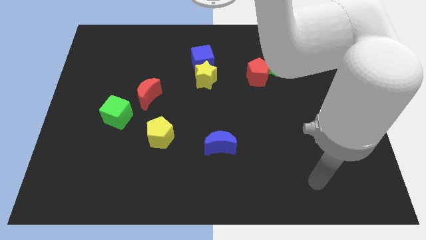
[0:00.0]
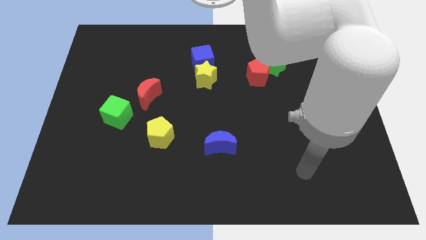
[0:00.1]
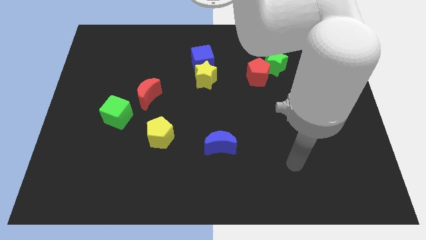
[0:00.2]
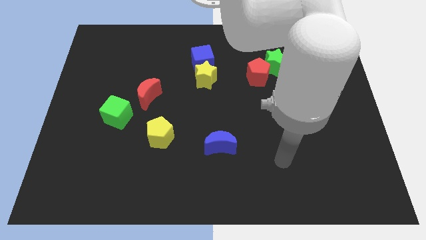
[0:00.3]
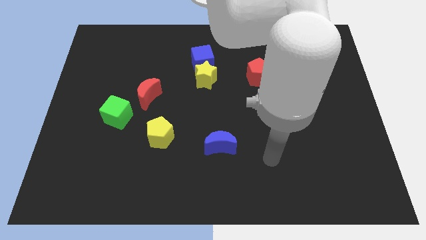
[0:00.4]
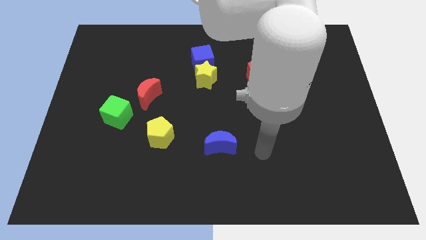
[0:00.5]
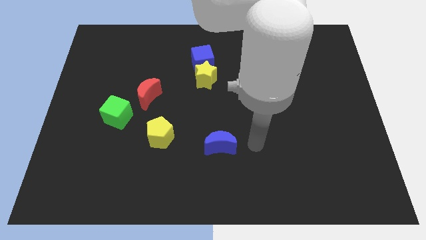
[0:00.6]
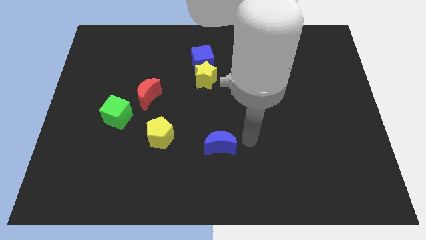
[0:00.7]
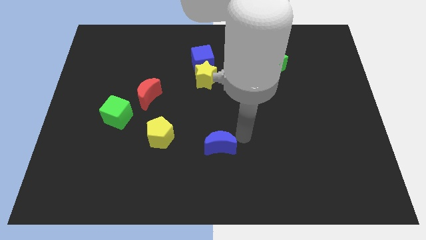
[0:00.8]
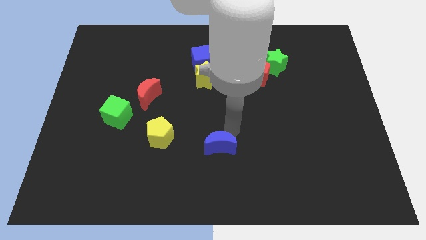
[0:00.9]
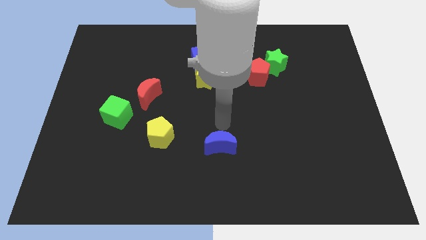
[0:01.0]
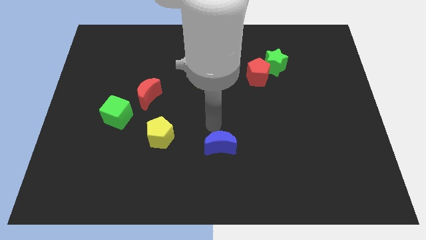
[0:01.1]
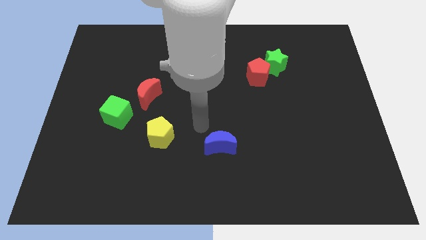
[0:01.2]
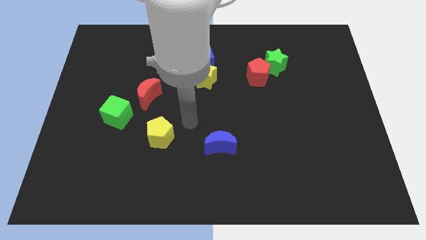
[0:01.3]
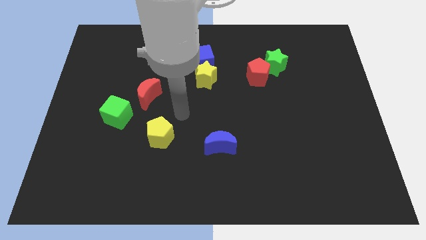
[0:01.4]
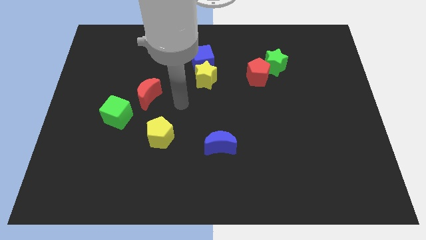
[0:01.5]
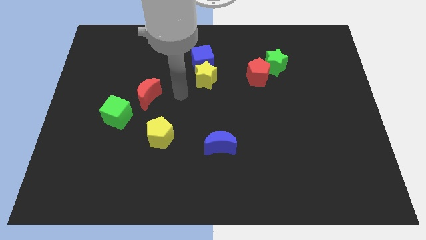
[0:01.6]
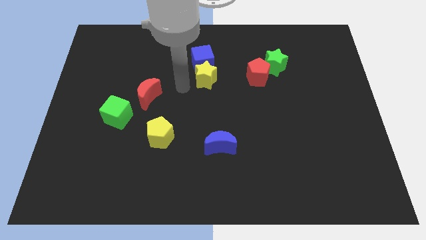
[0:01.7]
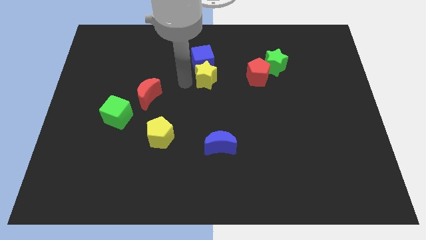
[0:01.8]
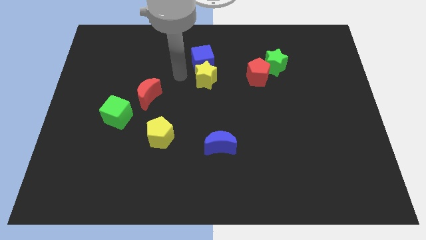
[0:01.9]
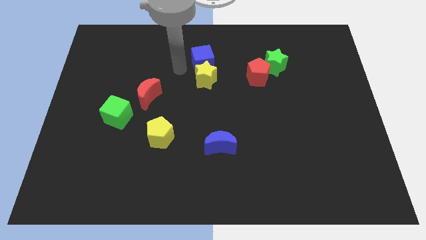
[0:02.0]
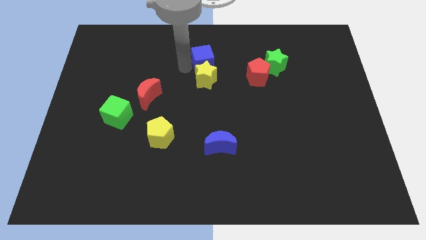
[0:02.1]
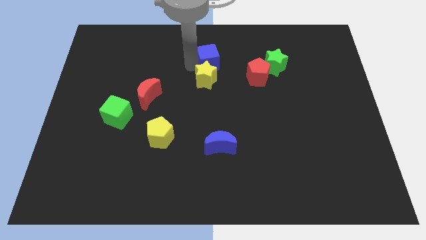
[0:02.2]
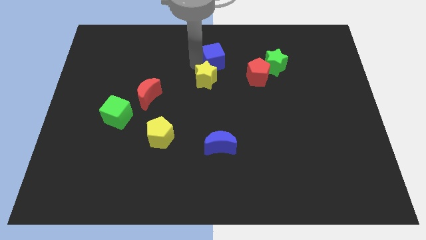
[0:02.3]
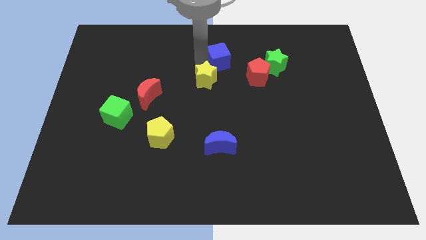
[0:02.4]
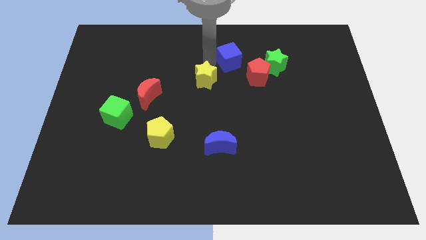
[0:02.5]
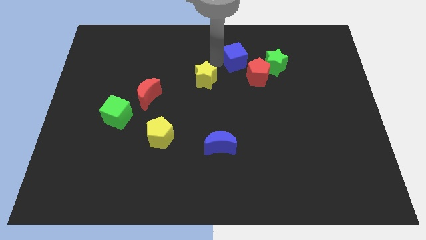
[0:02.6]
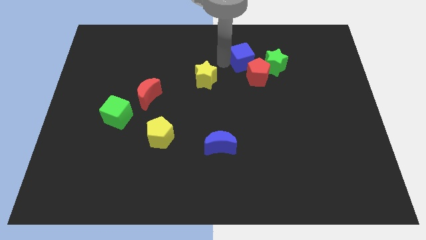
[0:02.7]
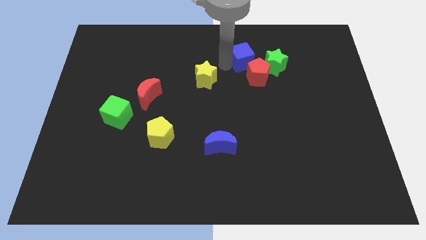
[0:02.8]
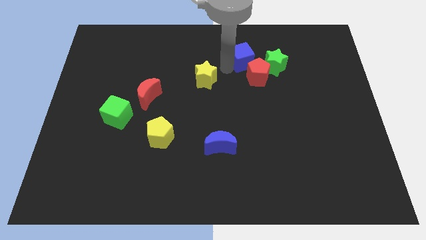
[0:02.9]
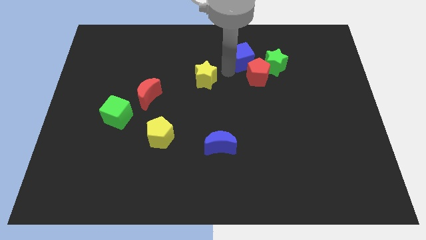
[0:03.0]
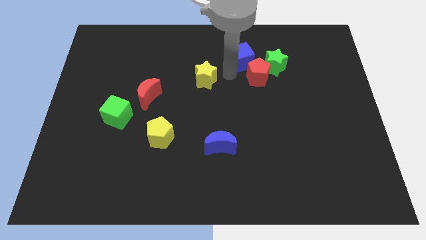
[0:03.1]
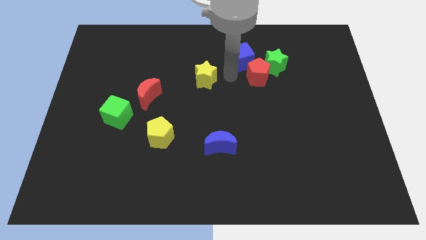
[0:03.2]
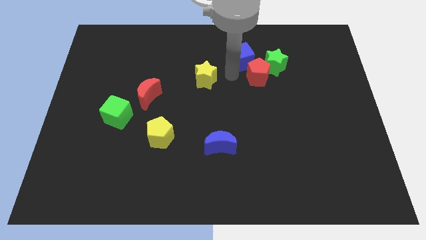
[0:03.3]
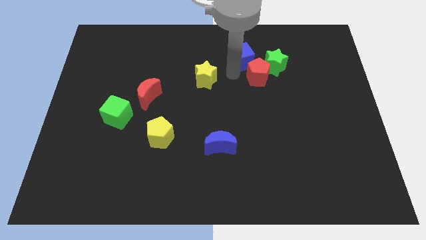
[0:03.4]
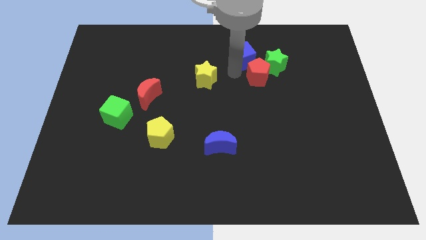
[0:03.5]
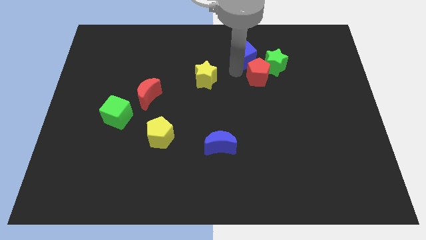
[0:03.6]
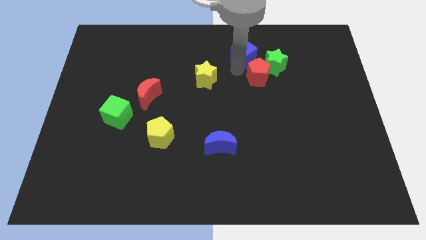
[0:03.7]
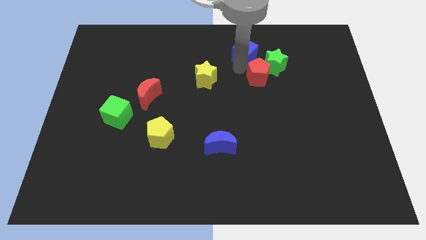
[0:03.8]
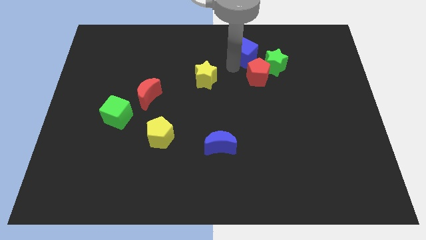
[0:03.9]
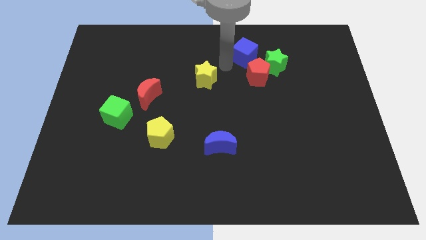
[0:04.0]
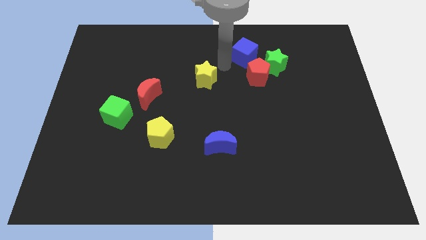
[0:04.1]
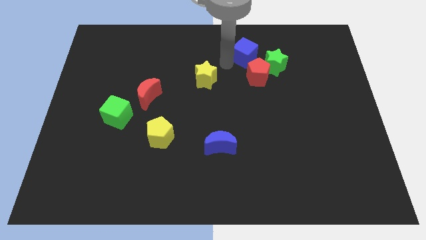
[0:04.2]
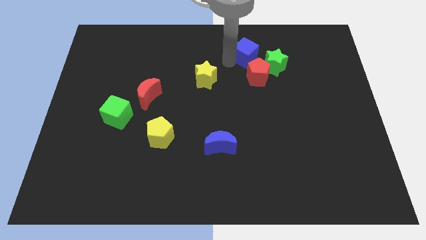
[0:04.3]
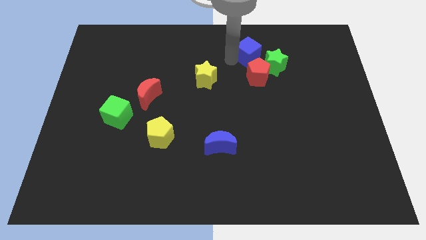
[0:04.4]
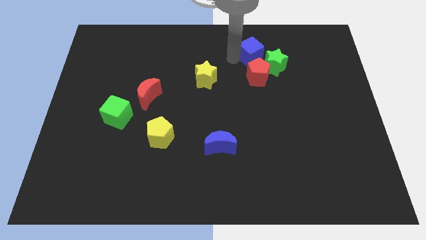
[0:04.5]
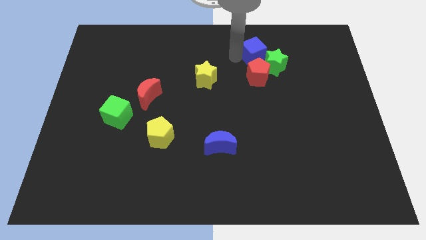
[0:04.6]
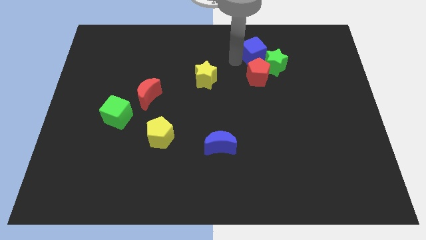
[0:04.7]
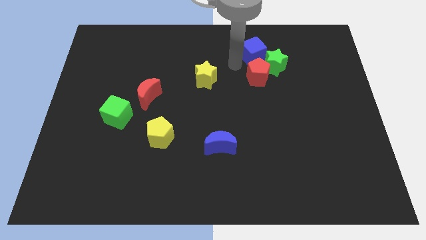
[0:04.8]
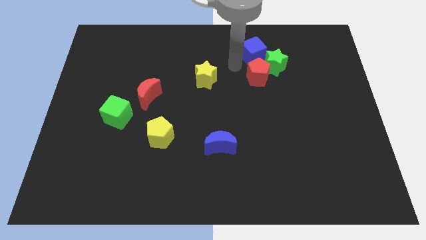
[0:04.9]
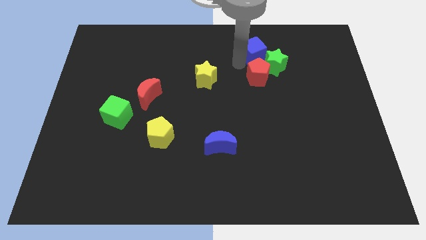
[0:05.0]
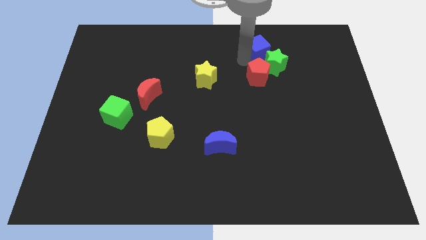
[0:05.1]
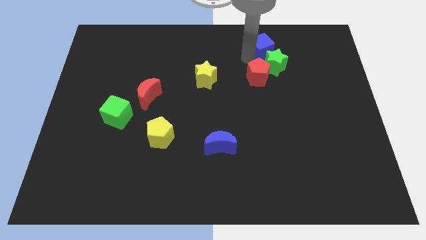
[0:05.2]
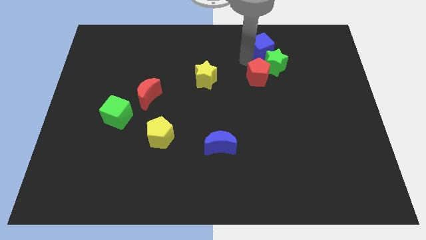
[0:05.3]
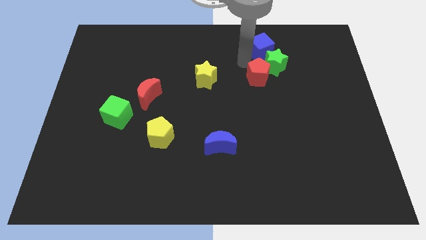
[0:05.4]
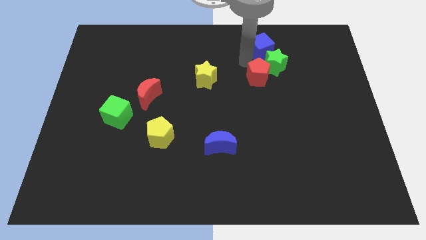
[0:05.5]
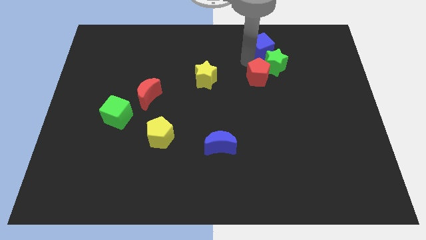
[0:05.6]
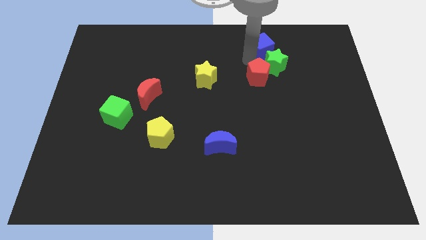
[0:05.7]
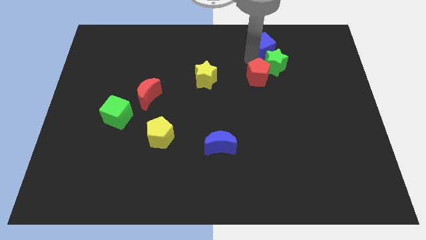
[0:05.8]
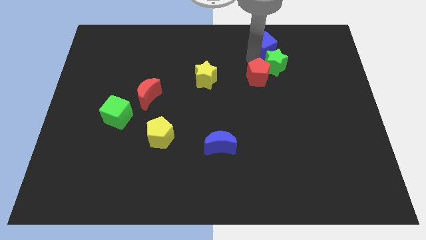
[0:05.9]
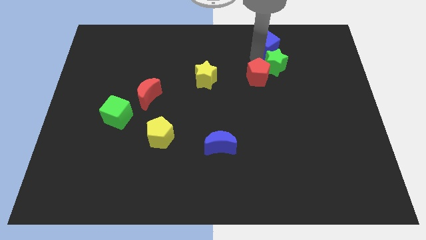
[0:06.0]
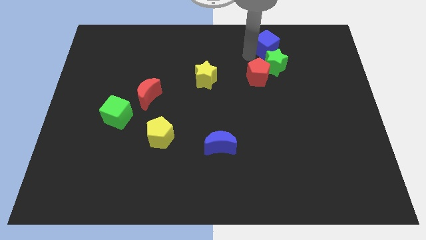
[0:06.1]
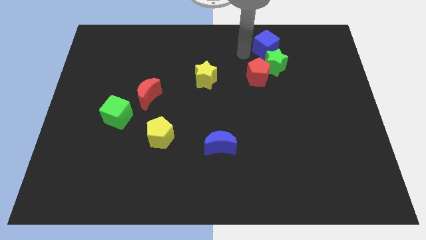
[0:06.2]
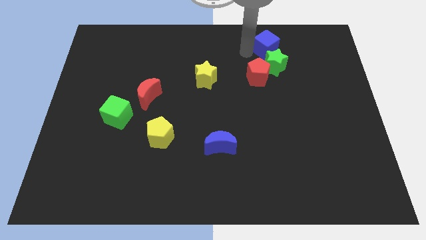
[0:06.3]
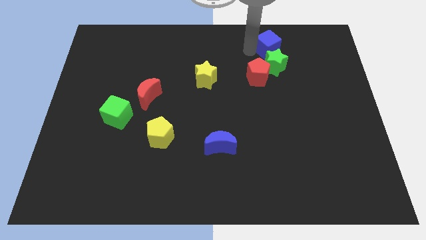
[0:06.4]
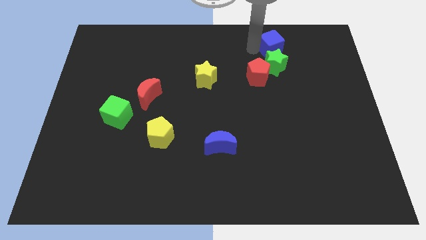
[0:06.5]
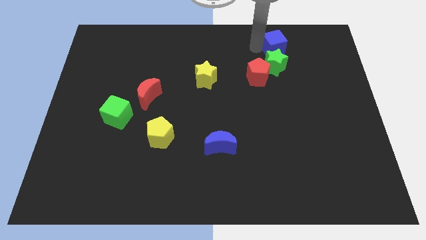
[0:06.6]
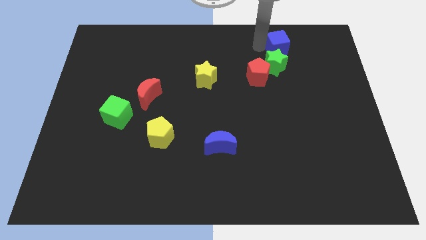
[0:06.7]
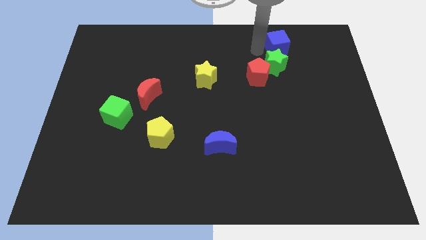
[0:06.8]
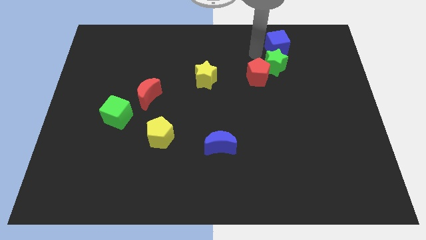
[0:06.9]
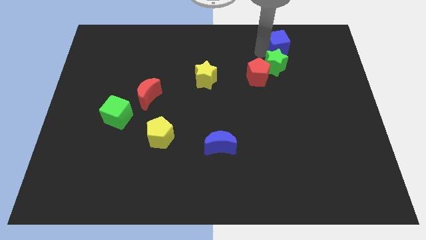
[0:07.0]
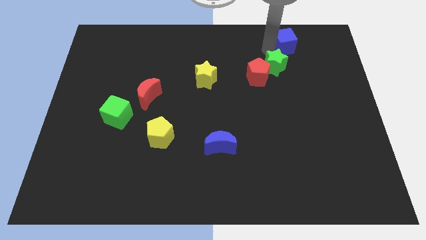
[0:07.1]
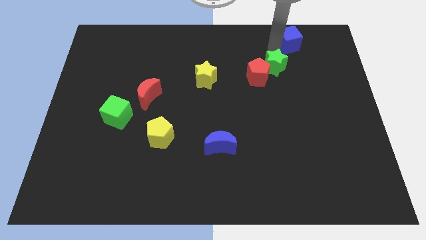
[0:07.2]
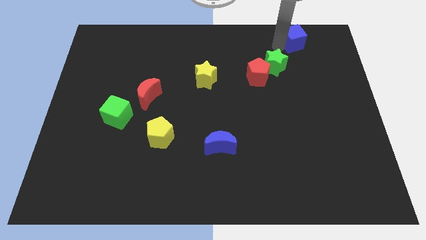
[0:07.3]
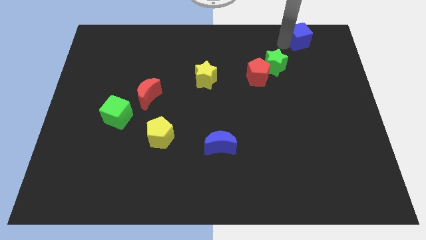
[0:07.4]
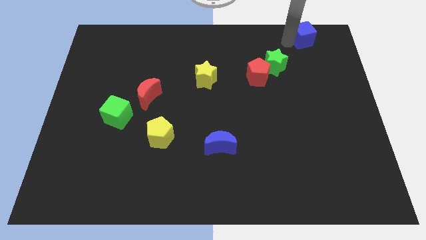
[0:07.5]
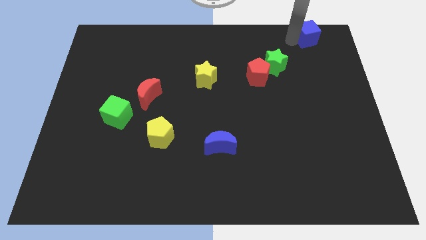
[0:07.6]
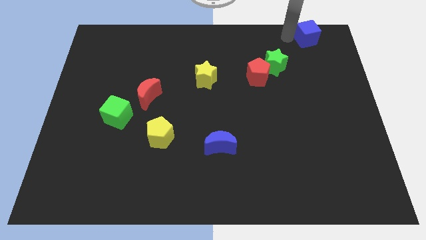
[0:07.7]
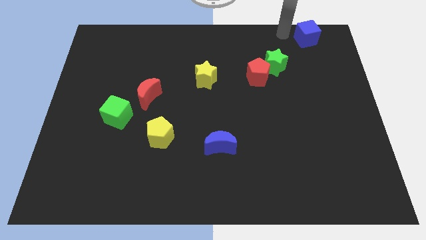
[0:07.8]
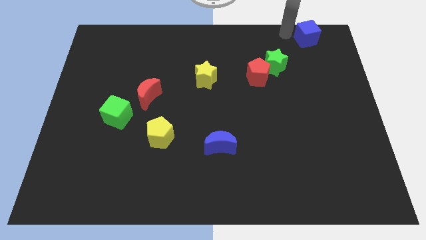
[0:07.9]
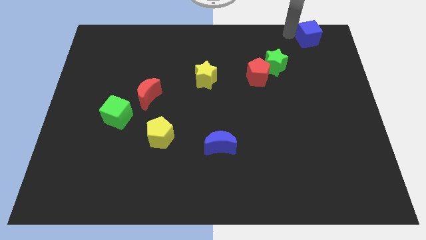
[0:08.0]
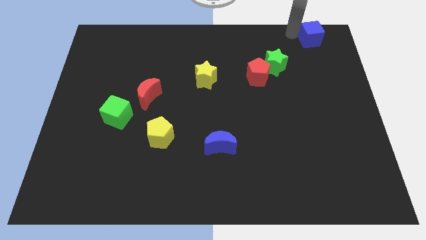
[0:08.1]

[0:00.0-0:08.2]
move the blue cube to the upper right corner
